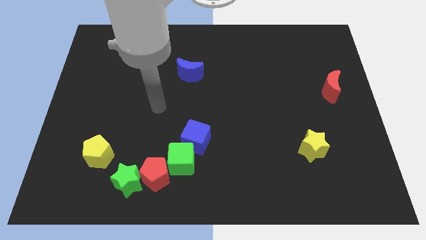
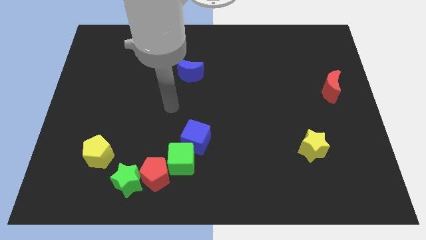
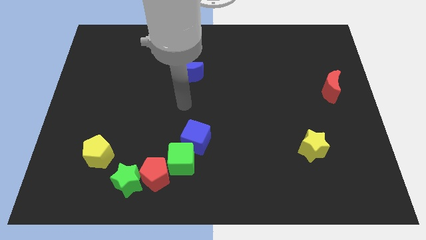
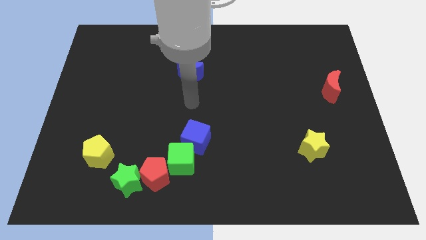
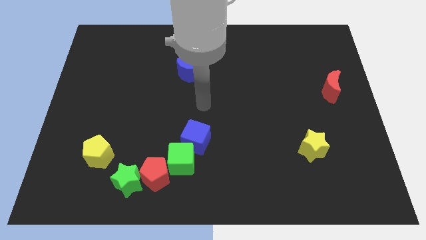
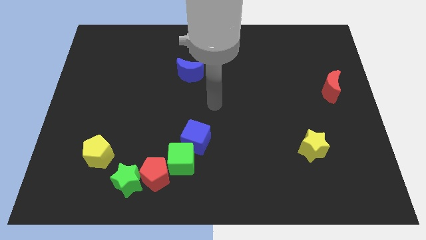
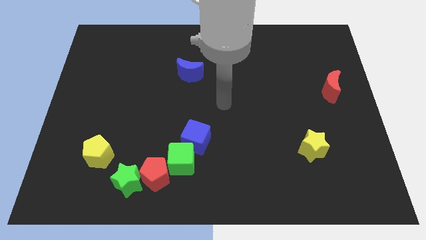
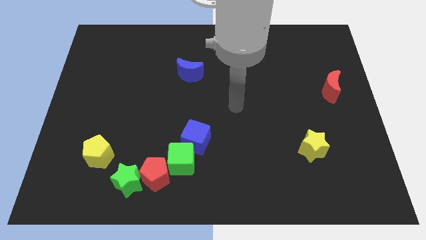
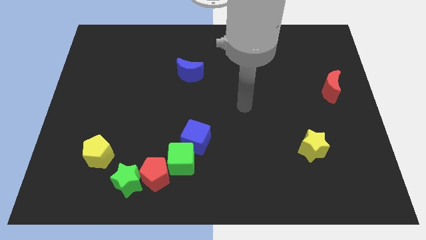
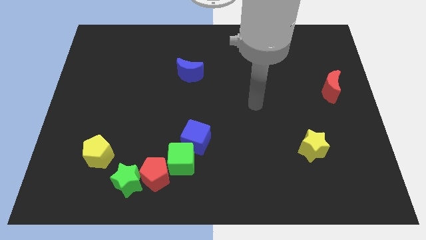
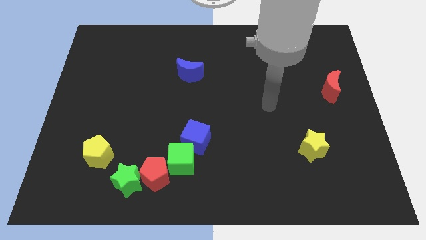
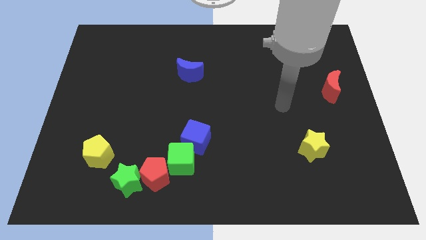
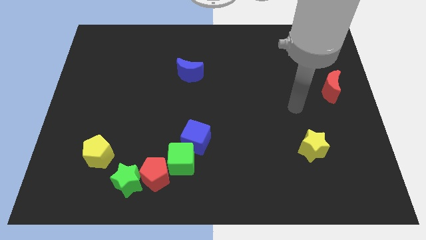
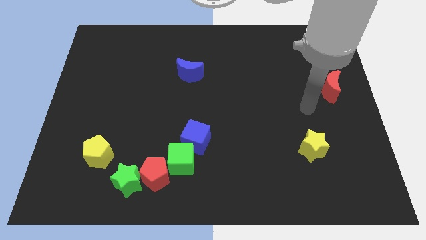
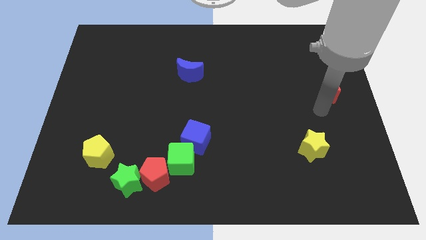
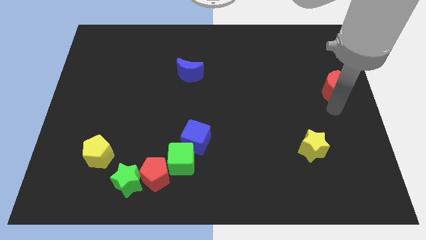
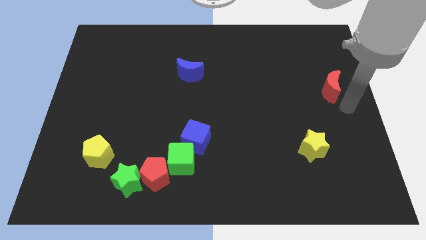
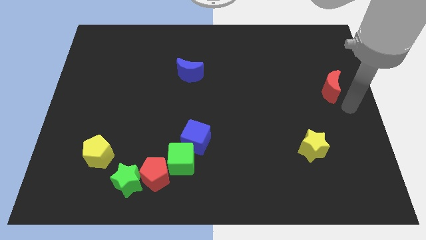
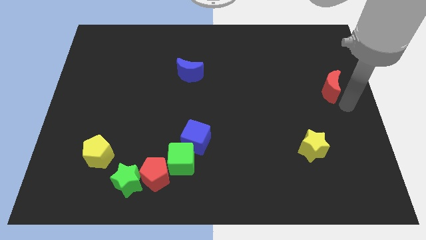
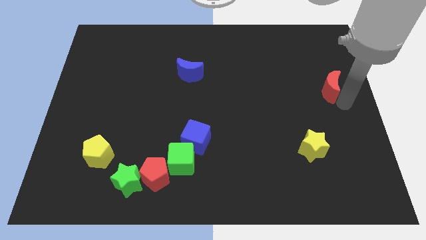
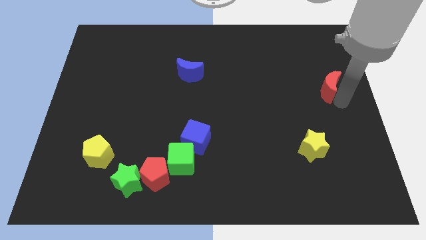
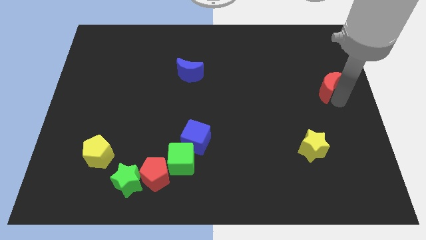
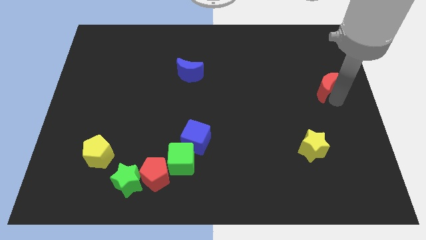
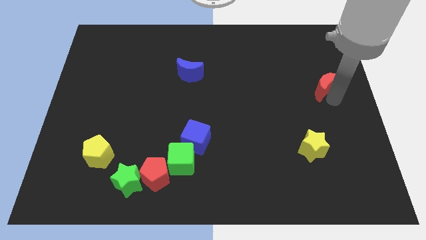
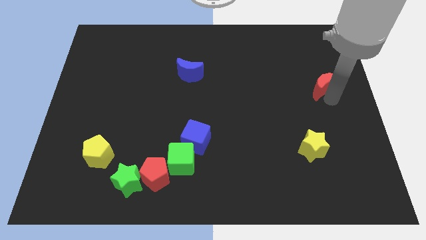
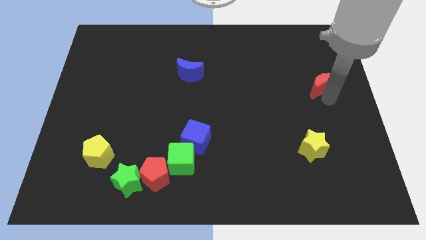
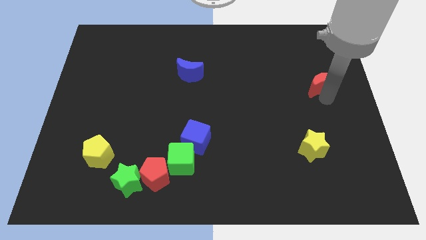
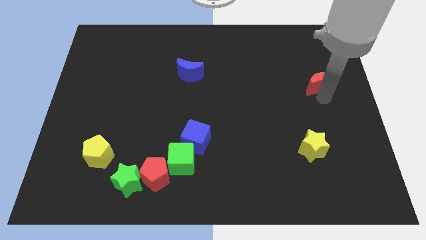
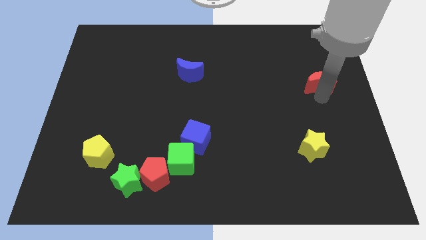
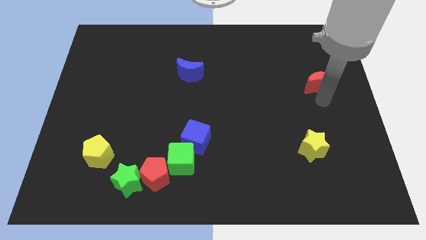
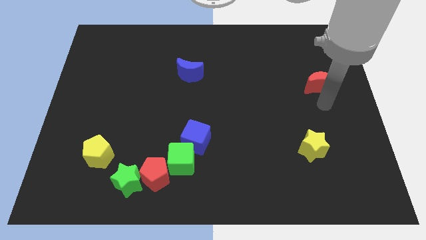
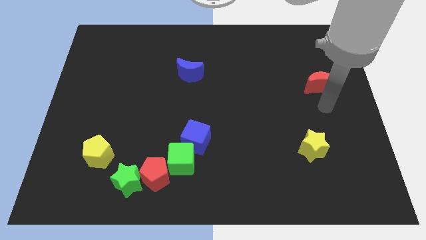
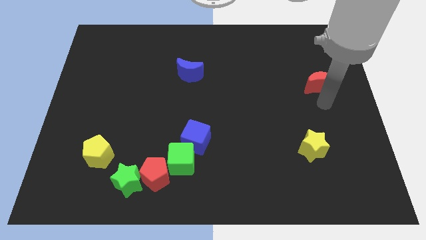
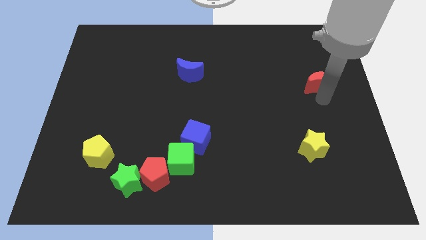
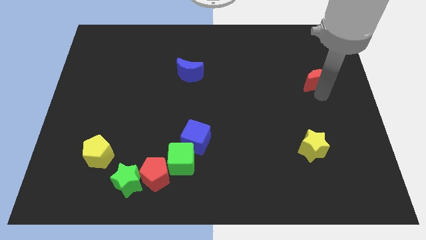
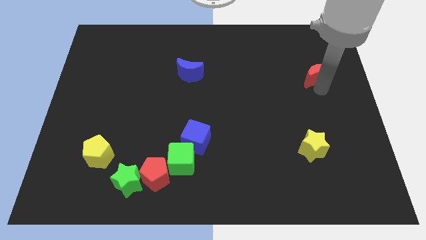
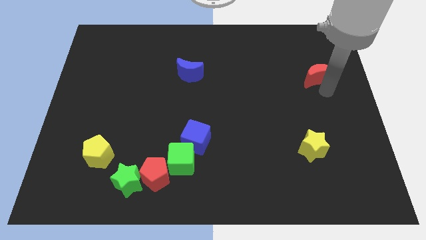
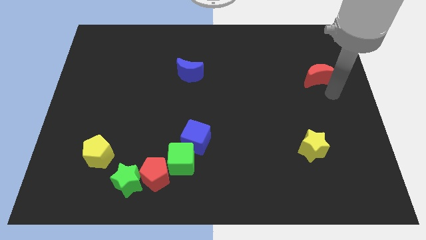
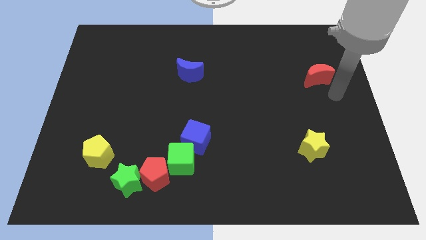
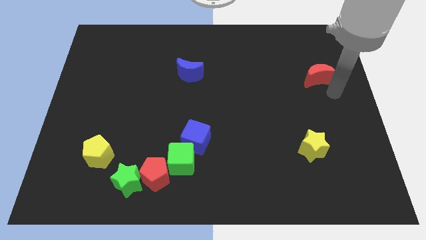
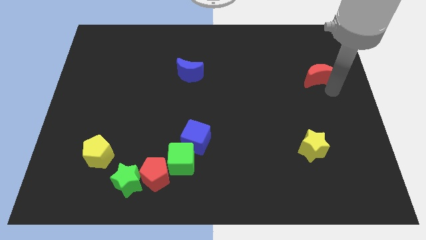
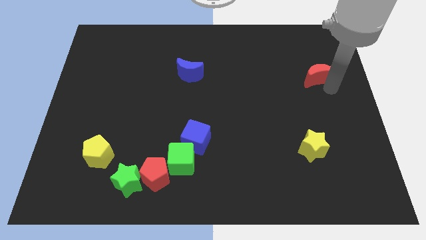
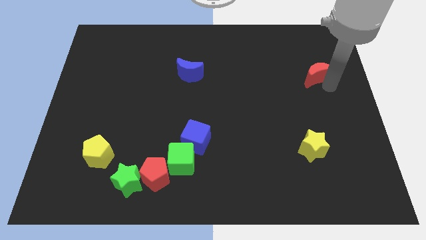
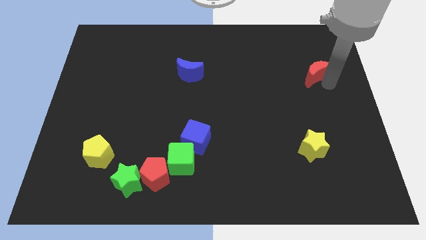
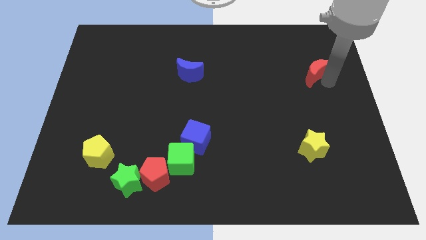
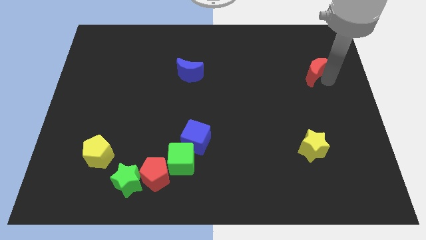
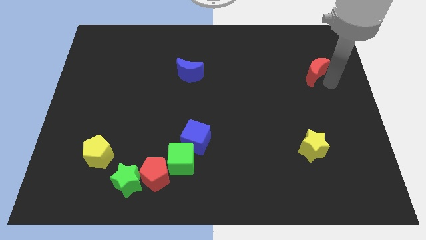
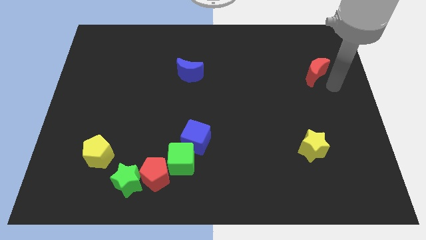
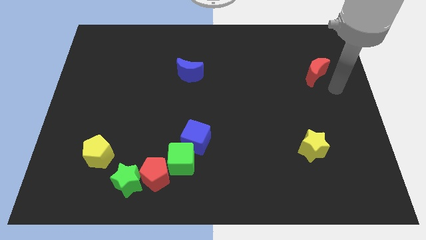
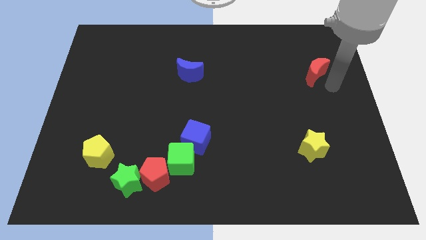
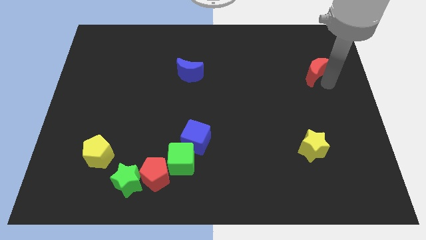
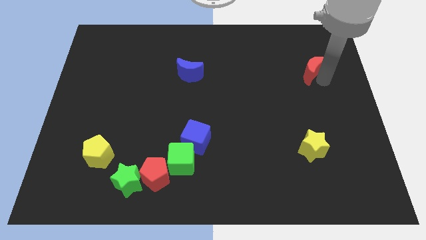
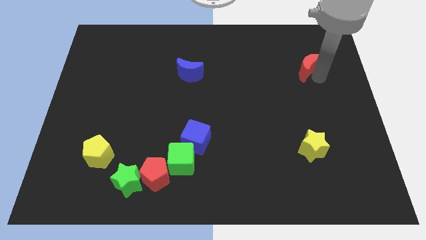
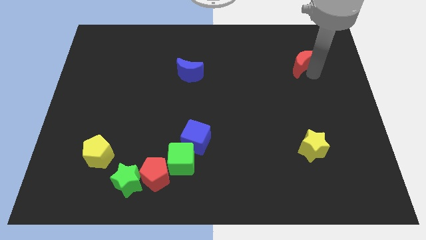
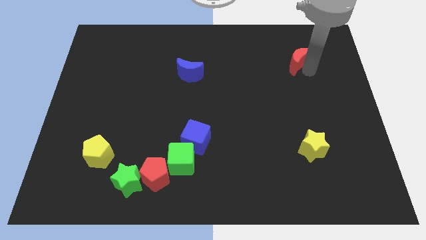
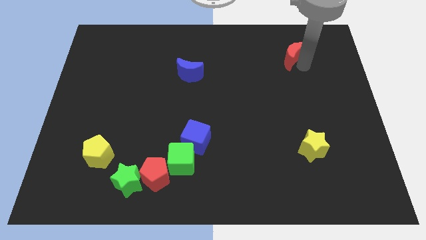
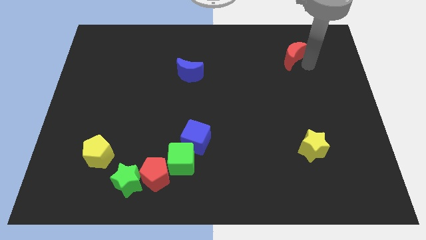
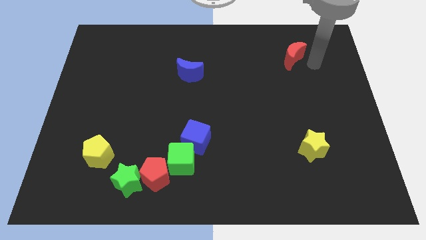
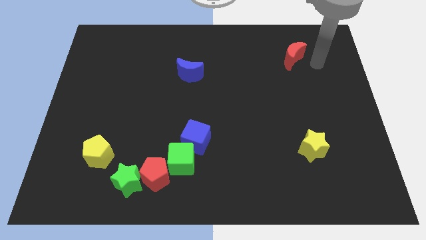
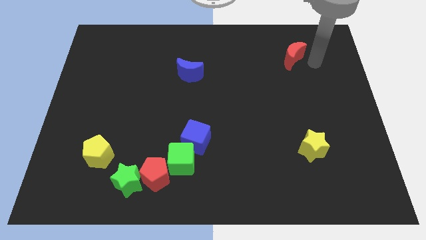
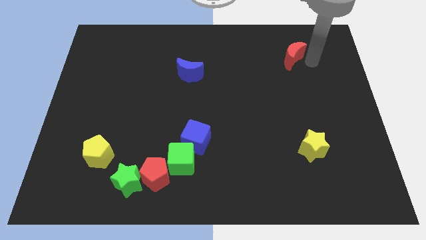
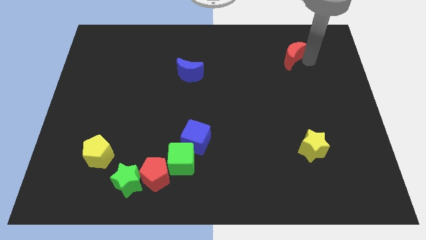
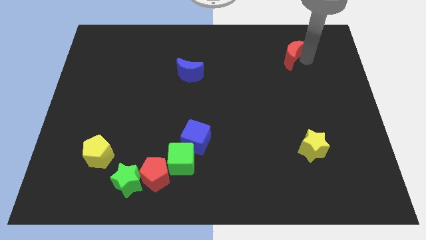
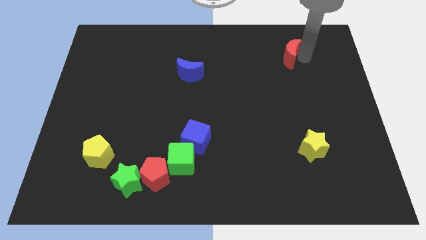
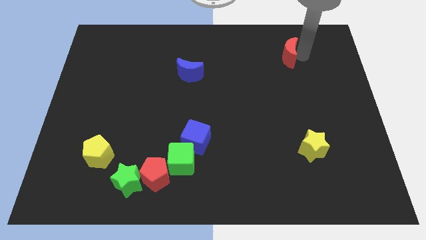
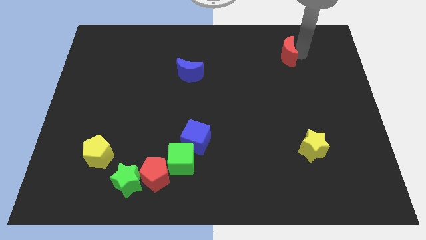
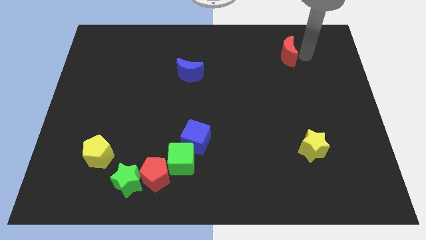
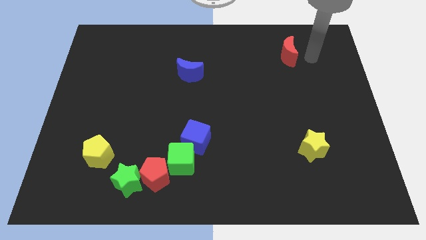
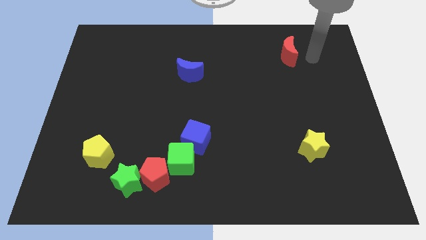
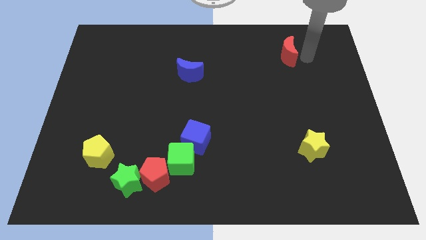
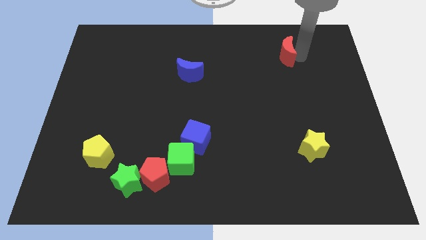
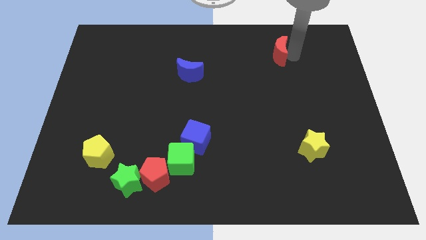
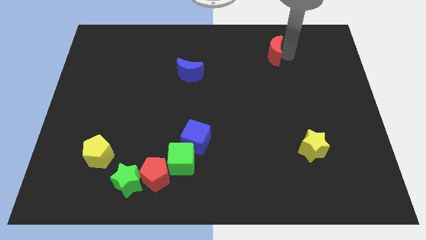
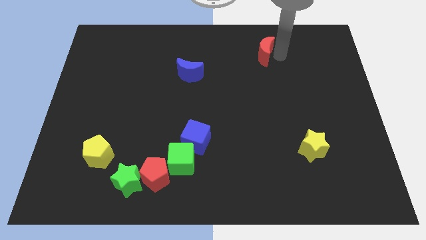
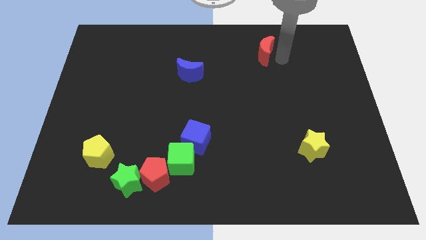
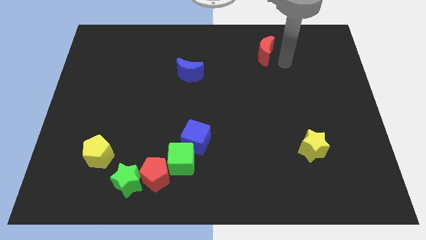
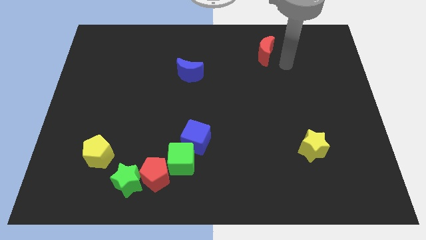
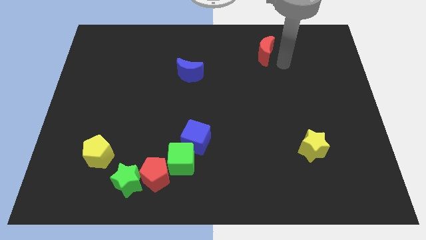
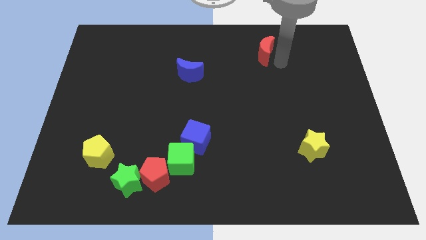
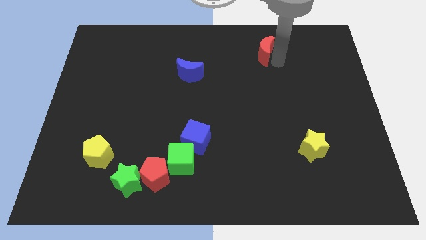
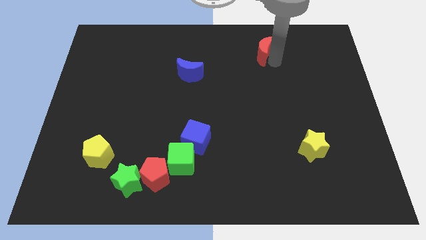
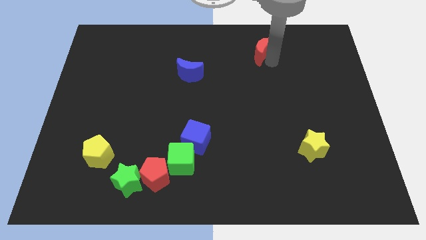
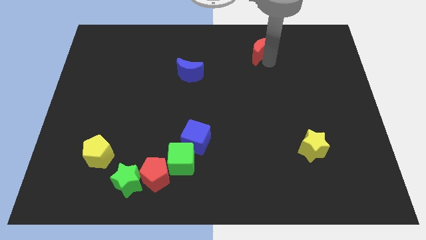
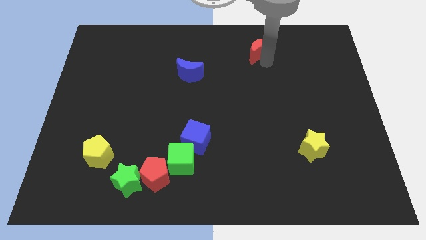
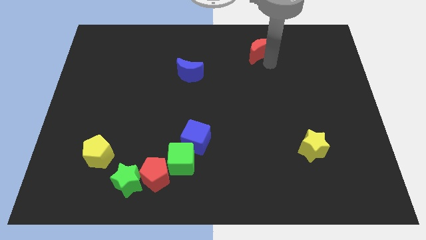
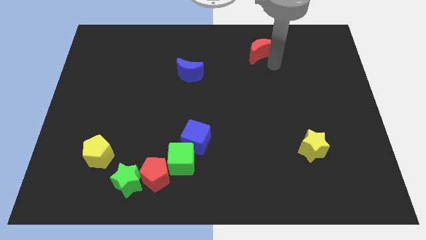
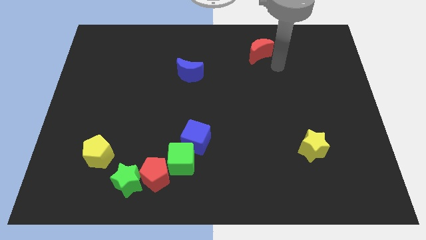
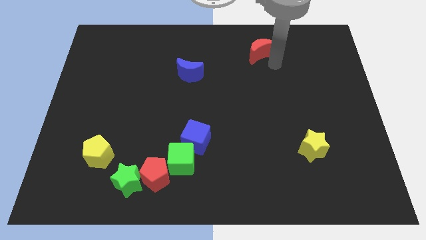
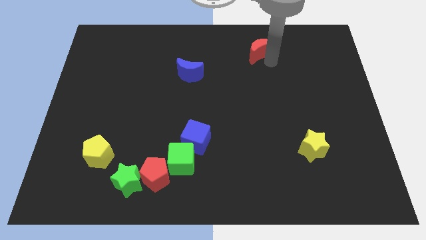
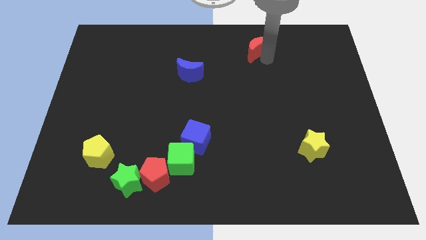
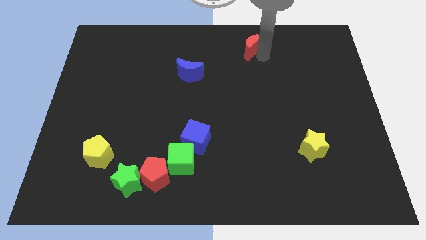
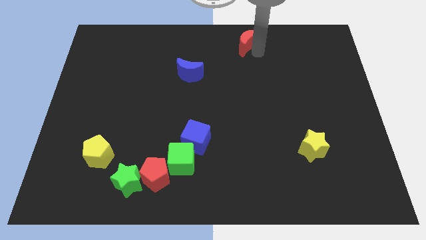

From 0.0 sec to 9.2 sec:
push the red moon to the towards your base
